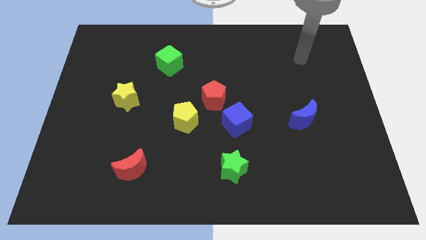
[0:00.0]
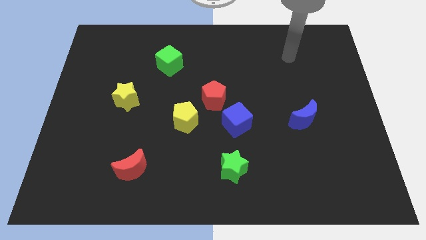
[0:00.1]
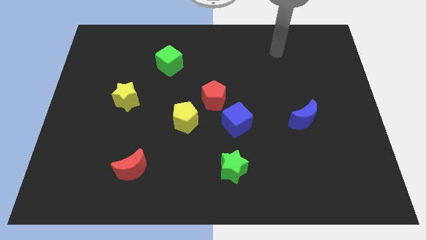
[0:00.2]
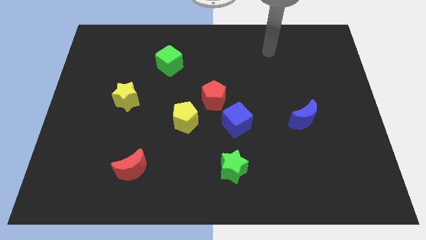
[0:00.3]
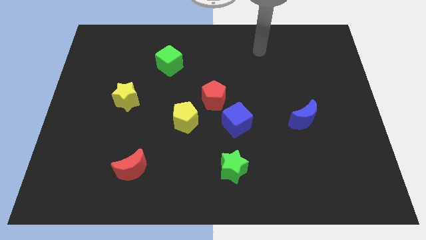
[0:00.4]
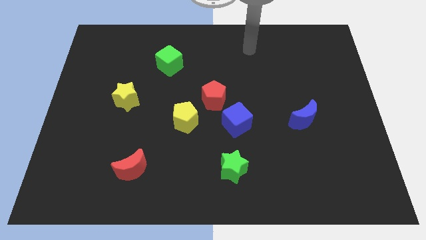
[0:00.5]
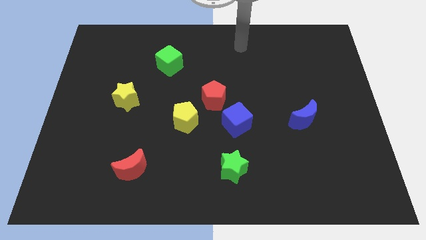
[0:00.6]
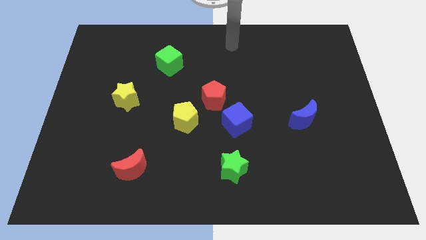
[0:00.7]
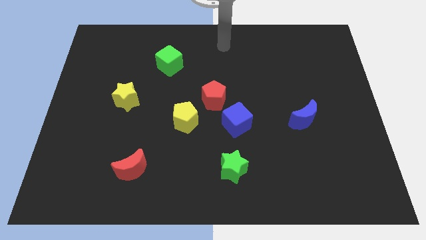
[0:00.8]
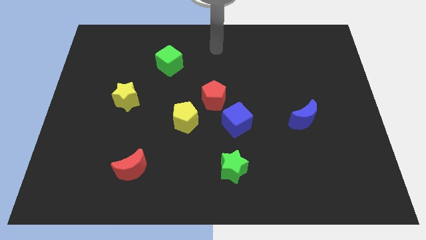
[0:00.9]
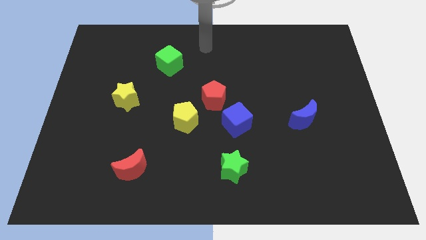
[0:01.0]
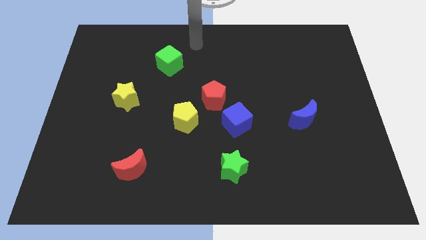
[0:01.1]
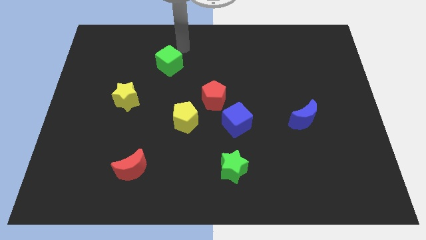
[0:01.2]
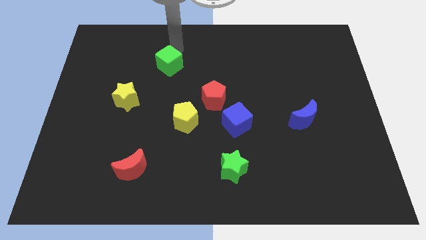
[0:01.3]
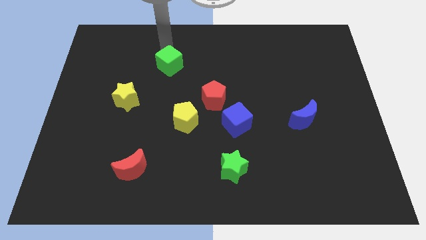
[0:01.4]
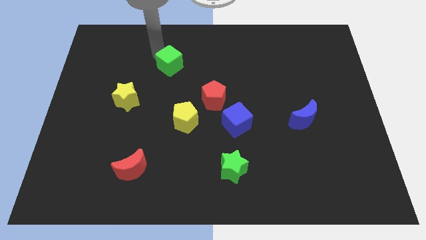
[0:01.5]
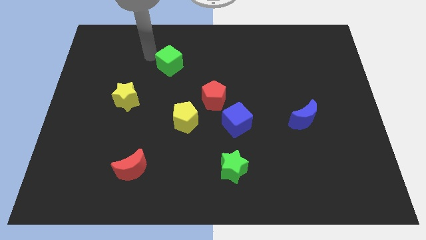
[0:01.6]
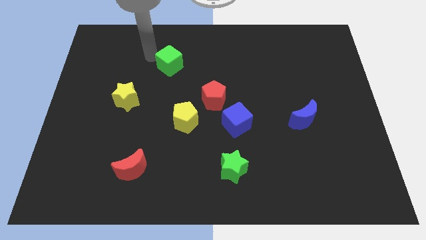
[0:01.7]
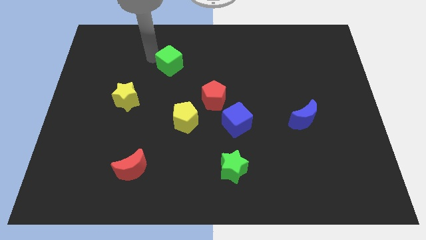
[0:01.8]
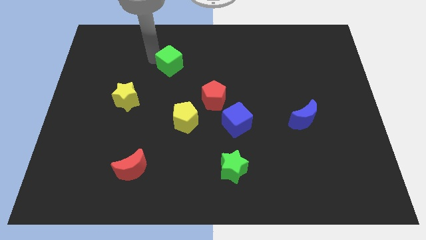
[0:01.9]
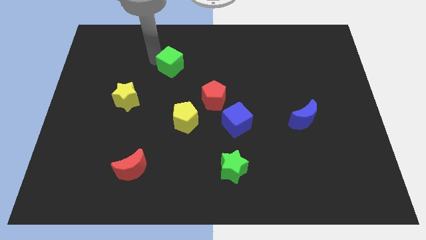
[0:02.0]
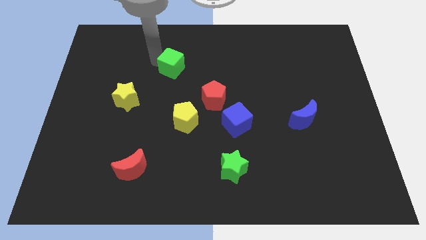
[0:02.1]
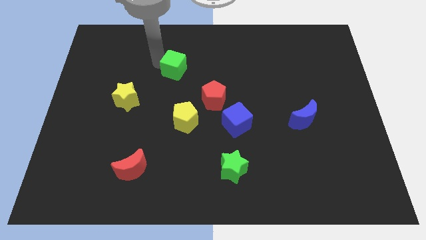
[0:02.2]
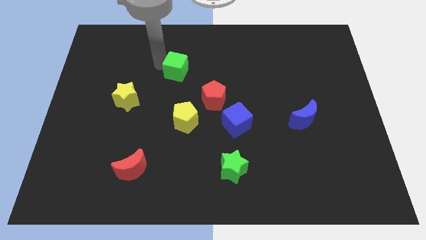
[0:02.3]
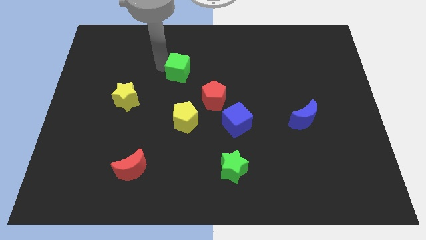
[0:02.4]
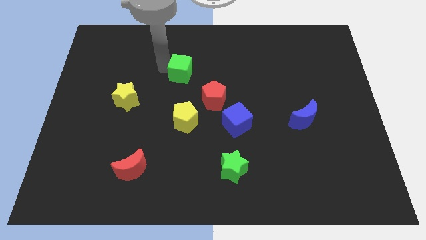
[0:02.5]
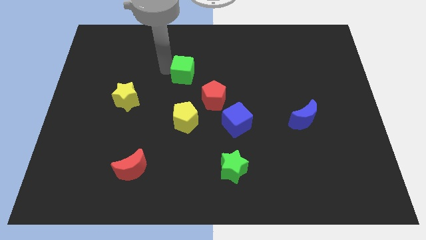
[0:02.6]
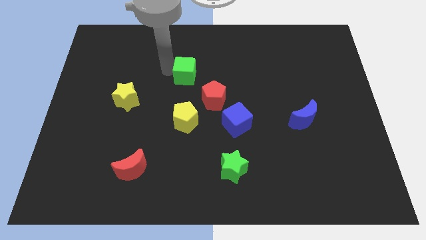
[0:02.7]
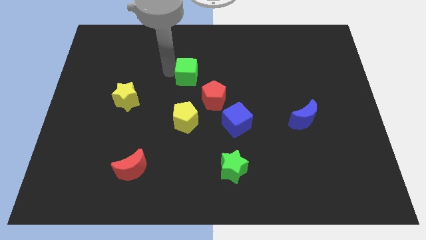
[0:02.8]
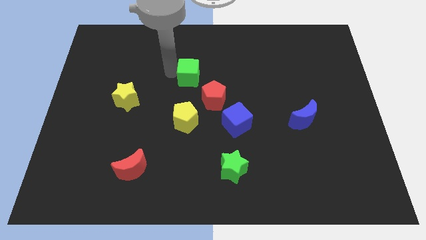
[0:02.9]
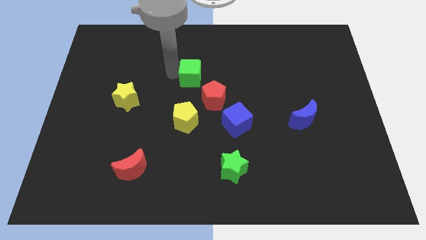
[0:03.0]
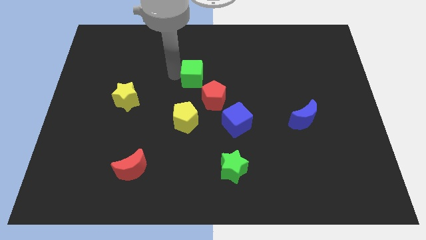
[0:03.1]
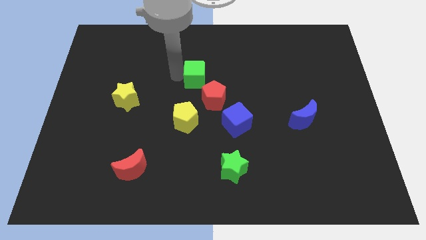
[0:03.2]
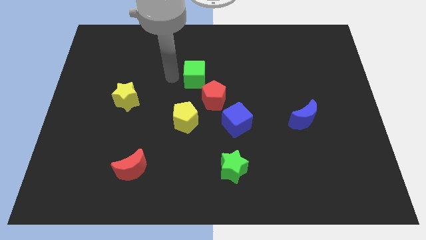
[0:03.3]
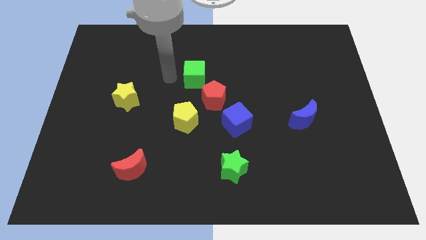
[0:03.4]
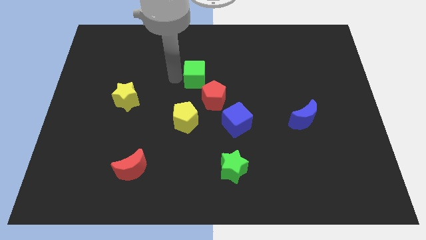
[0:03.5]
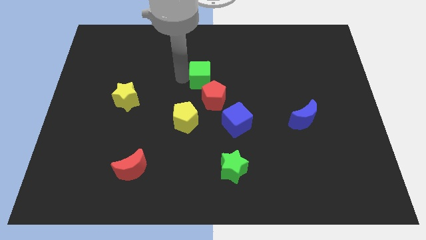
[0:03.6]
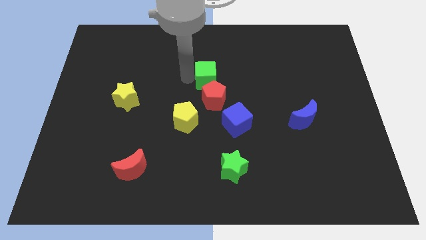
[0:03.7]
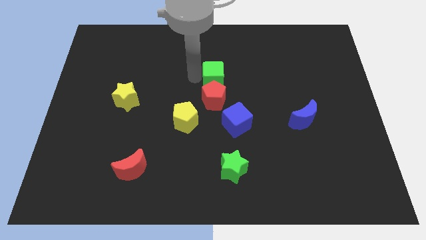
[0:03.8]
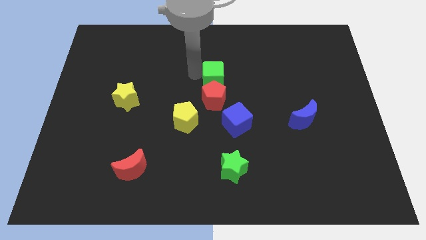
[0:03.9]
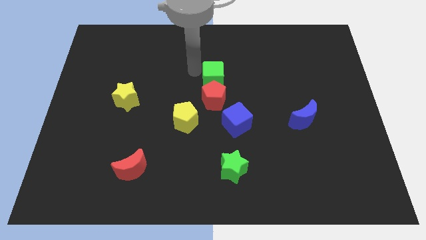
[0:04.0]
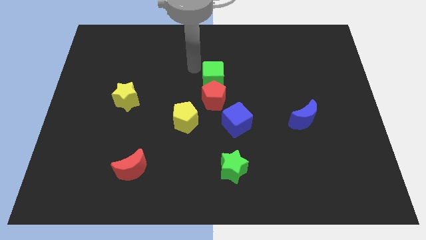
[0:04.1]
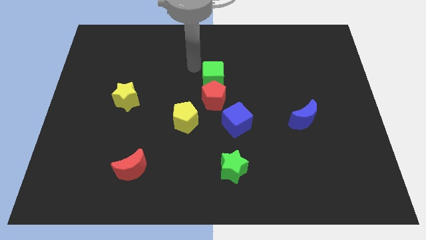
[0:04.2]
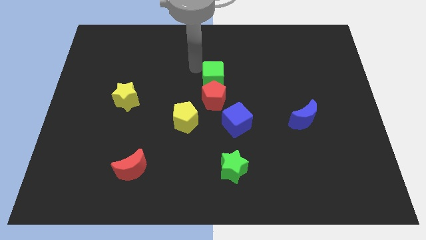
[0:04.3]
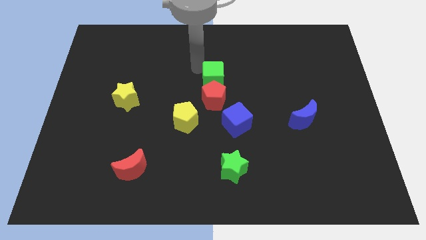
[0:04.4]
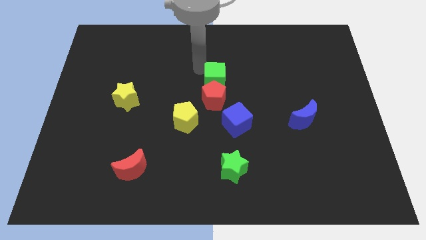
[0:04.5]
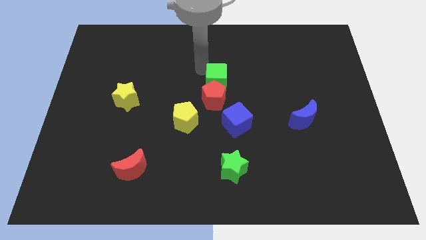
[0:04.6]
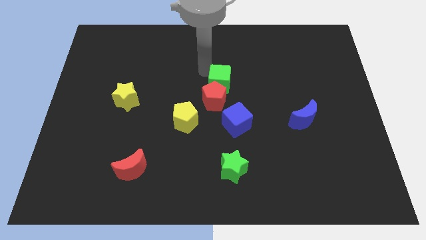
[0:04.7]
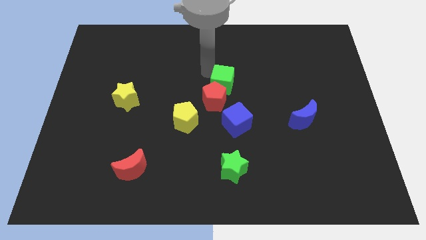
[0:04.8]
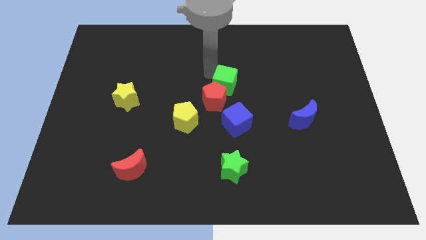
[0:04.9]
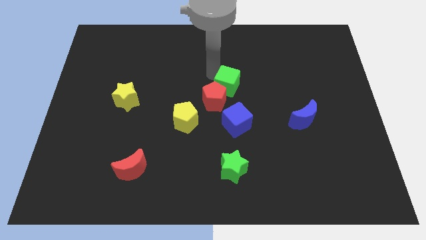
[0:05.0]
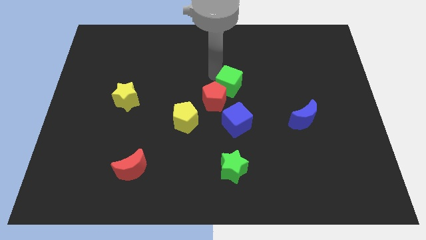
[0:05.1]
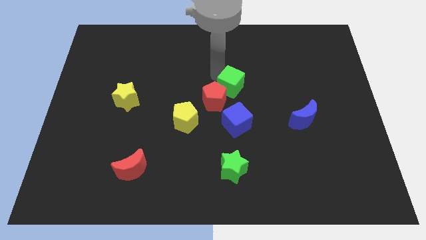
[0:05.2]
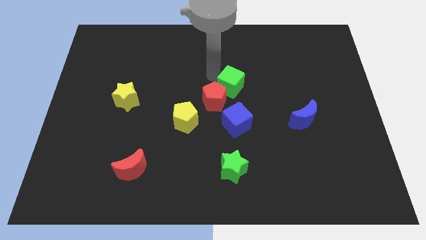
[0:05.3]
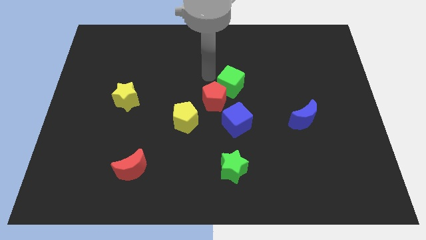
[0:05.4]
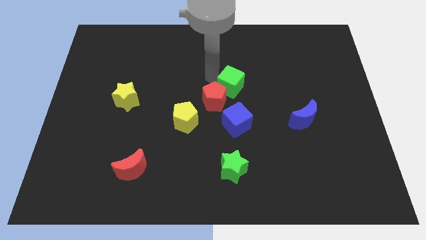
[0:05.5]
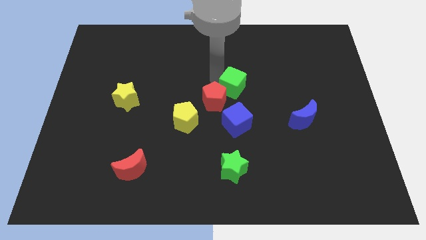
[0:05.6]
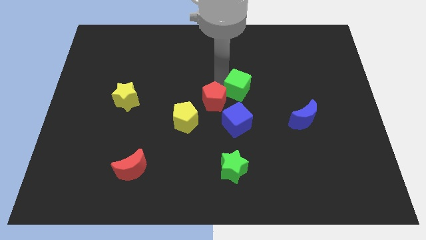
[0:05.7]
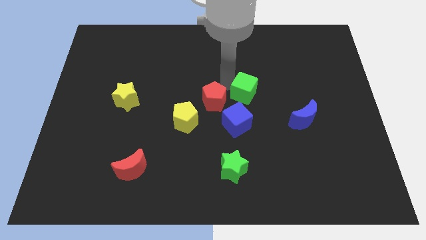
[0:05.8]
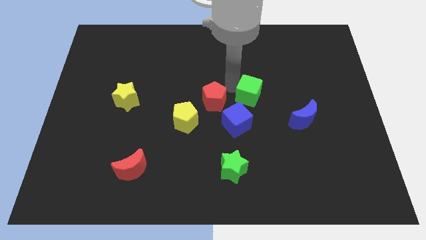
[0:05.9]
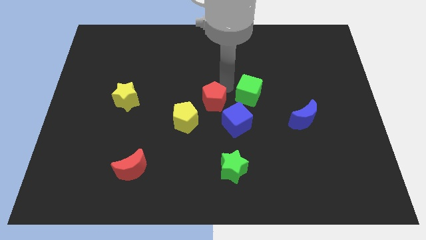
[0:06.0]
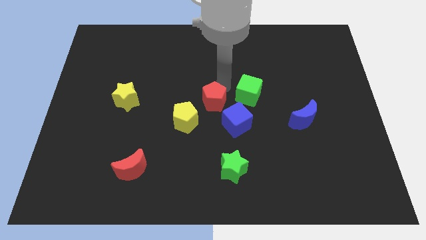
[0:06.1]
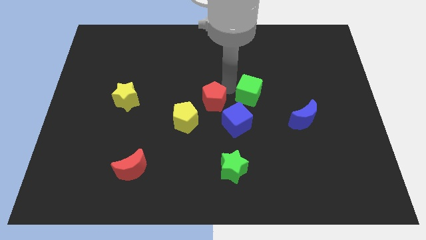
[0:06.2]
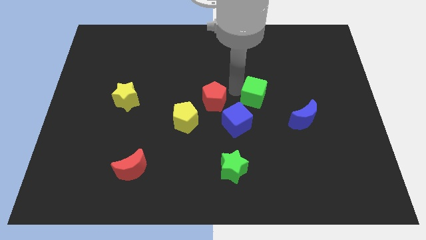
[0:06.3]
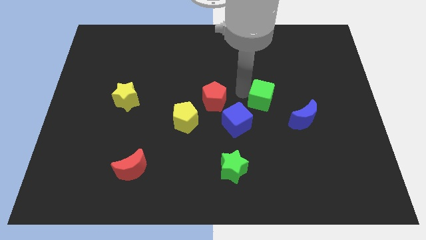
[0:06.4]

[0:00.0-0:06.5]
move the green cube diagonally up and to the left of the blue moon

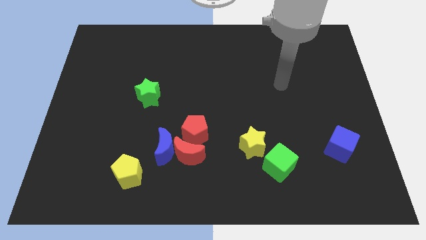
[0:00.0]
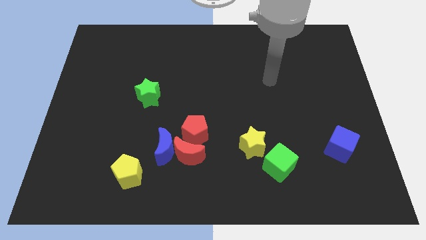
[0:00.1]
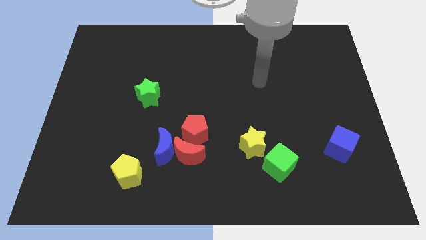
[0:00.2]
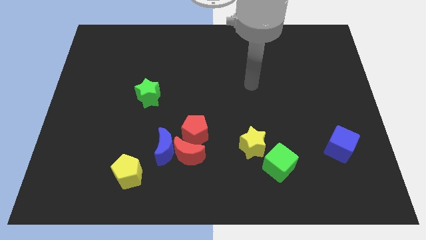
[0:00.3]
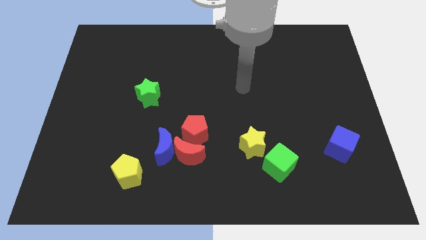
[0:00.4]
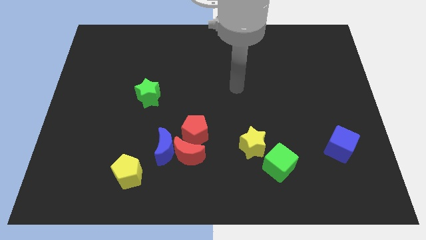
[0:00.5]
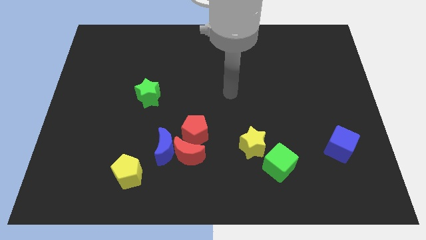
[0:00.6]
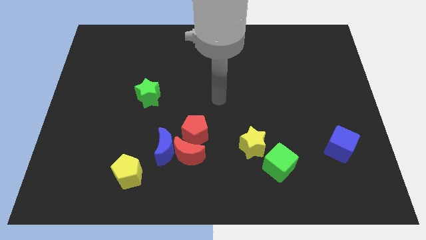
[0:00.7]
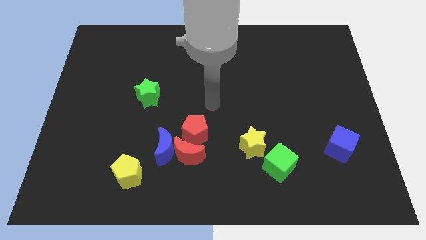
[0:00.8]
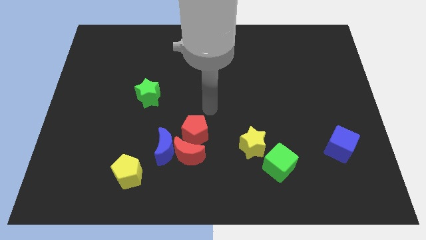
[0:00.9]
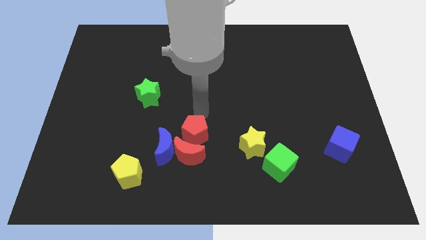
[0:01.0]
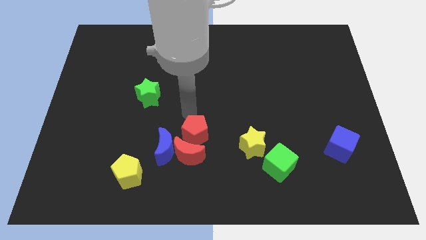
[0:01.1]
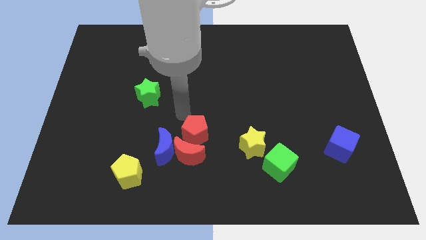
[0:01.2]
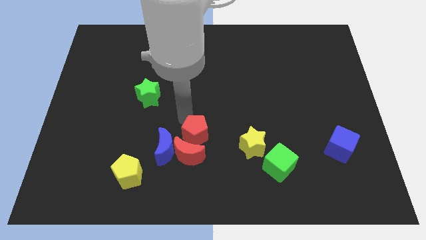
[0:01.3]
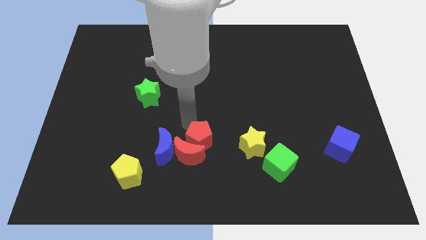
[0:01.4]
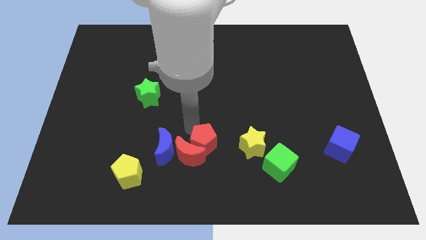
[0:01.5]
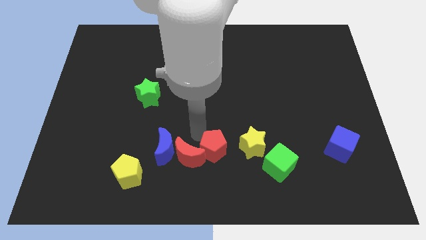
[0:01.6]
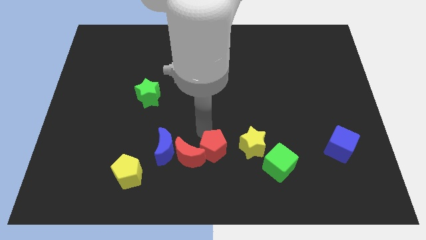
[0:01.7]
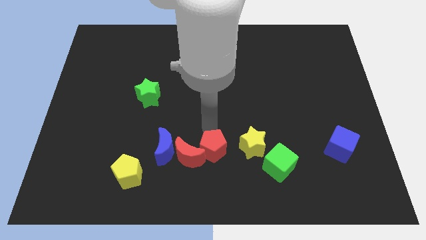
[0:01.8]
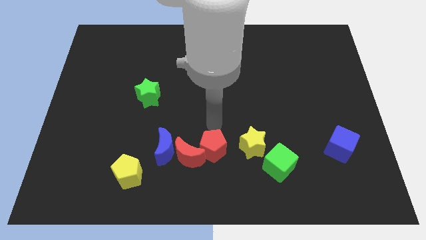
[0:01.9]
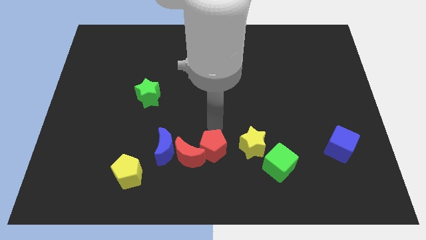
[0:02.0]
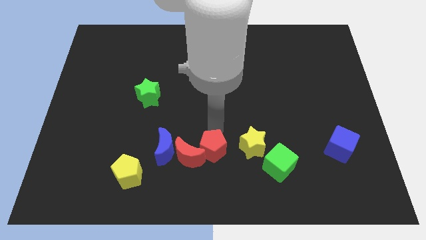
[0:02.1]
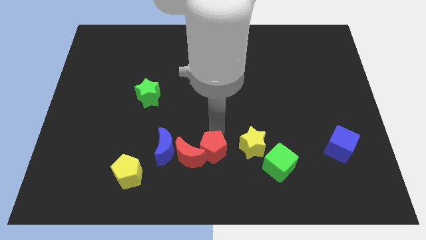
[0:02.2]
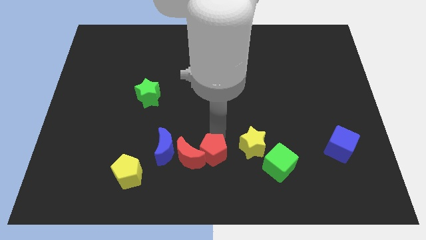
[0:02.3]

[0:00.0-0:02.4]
put the red pentagon diagonally down and to the right of the red moon
